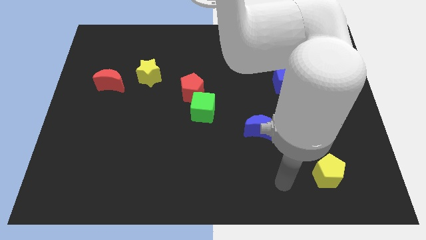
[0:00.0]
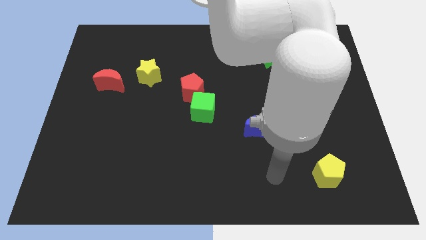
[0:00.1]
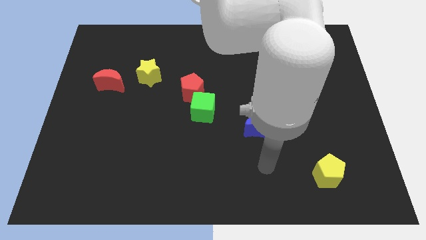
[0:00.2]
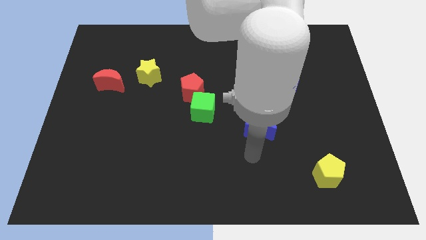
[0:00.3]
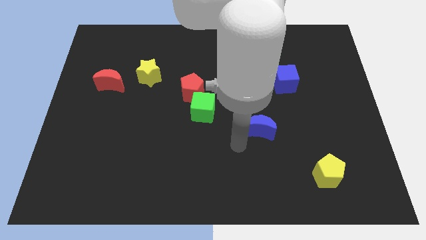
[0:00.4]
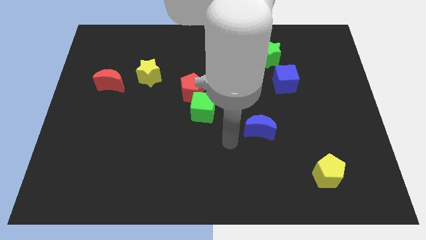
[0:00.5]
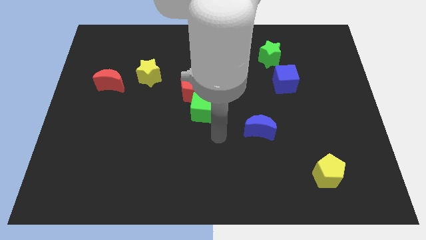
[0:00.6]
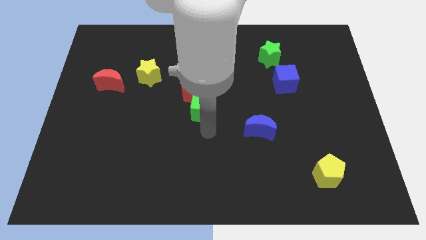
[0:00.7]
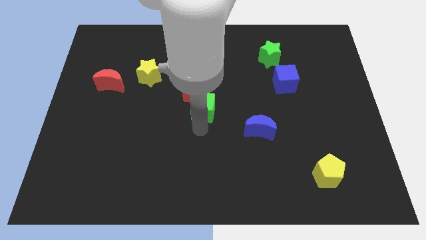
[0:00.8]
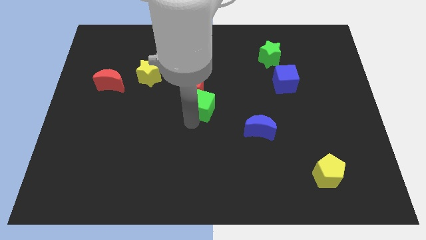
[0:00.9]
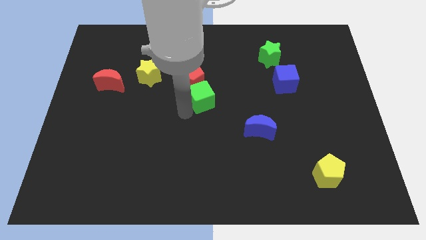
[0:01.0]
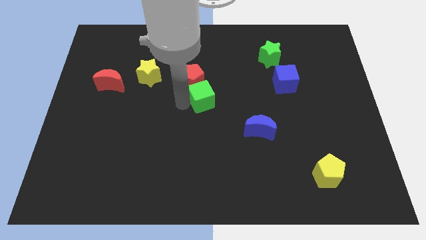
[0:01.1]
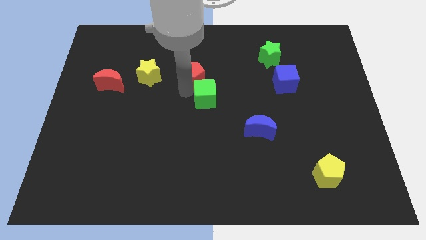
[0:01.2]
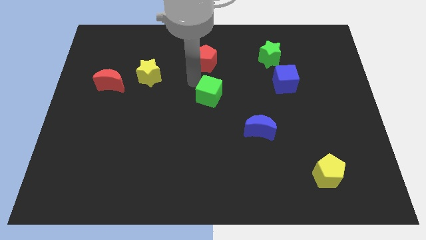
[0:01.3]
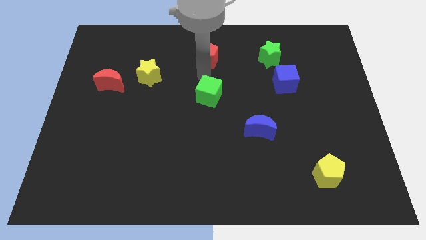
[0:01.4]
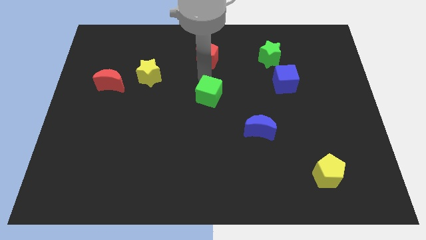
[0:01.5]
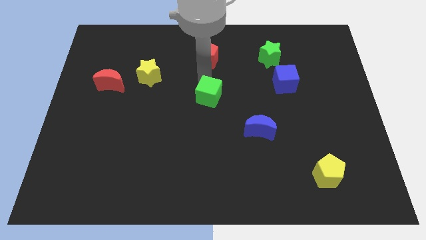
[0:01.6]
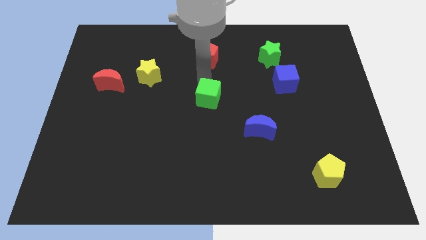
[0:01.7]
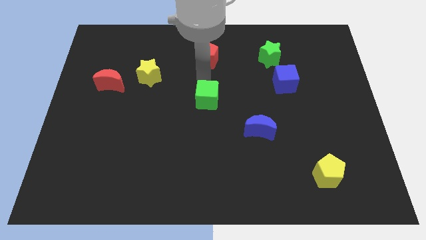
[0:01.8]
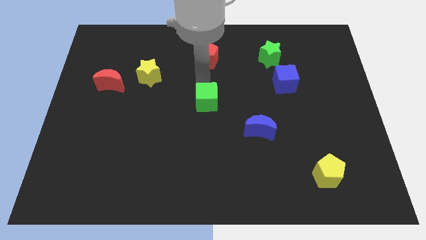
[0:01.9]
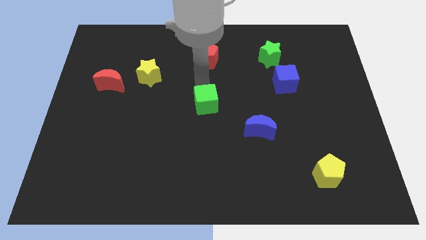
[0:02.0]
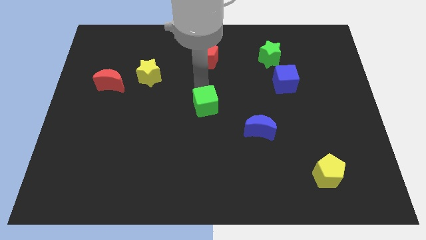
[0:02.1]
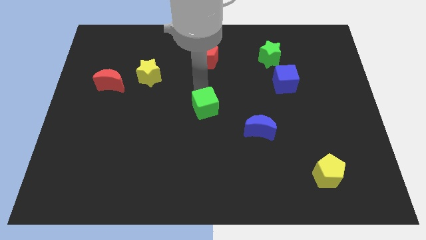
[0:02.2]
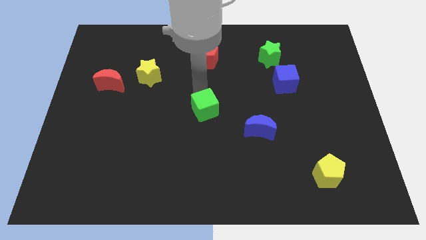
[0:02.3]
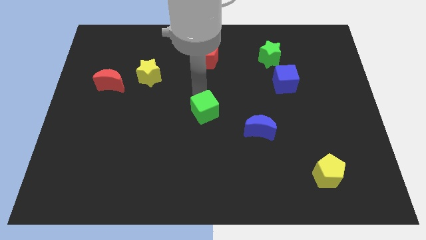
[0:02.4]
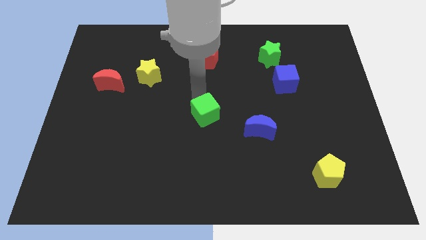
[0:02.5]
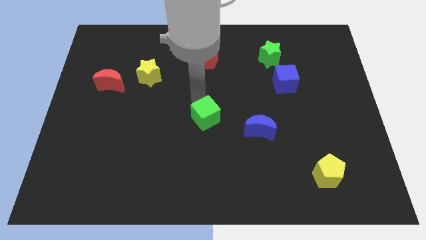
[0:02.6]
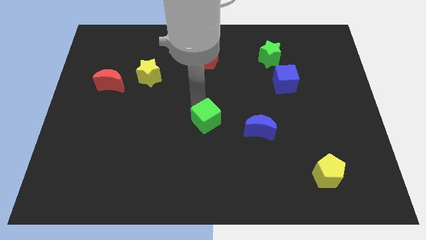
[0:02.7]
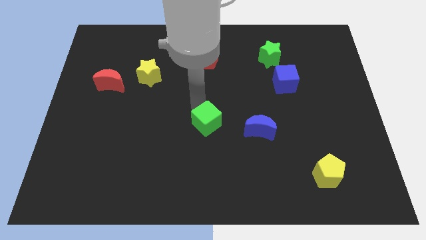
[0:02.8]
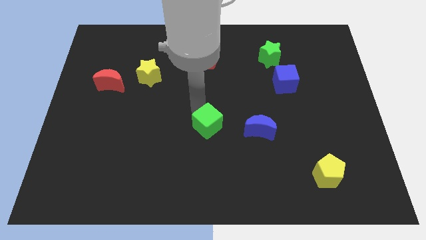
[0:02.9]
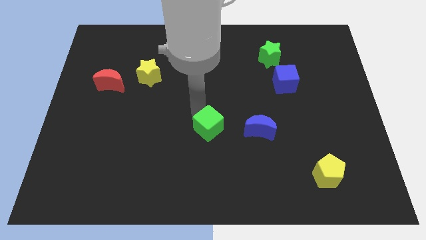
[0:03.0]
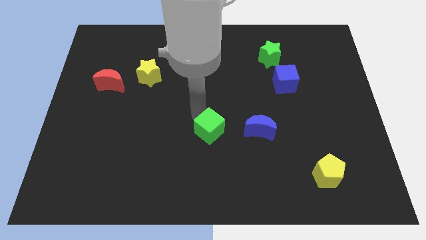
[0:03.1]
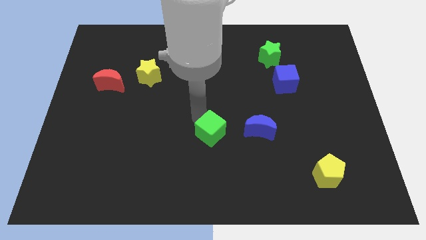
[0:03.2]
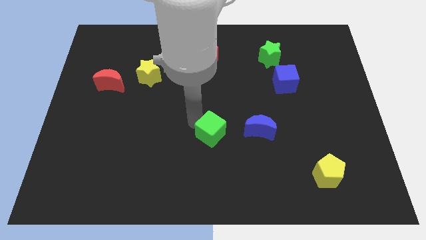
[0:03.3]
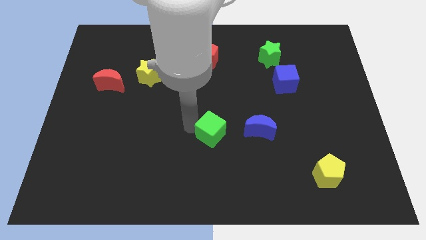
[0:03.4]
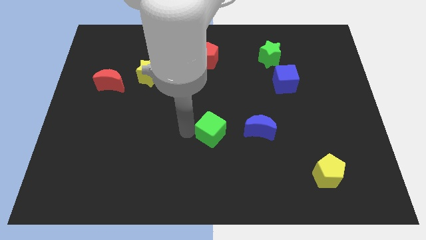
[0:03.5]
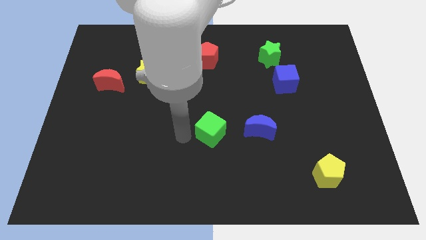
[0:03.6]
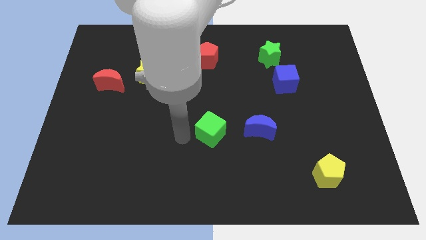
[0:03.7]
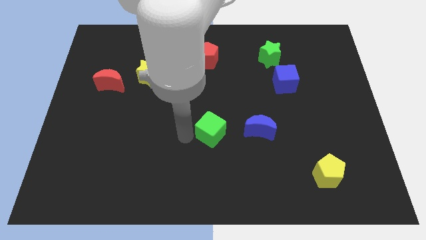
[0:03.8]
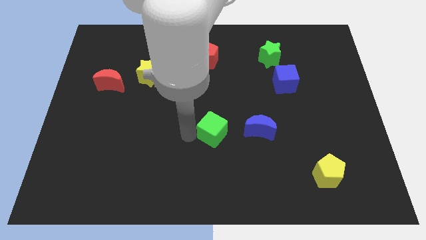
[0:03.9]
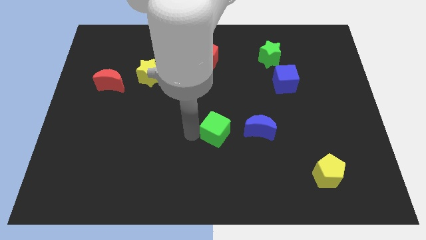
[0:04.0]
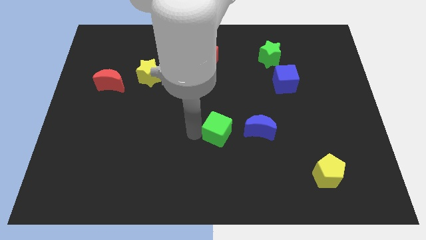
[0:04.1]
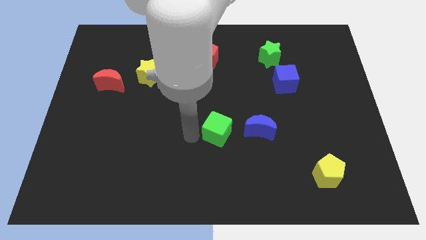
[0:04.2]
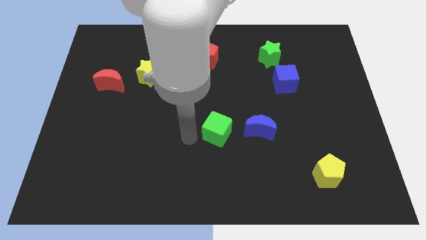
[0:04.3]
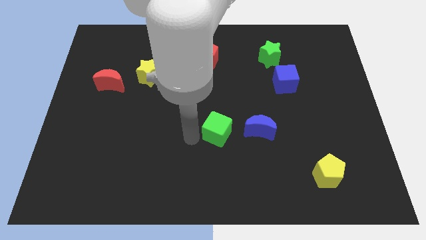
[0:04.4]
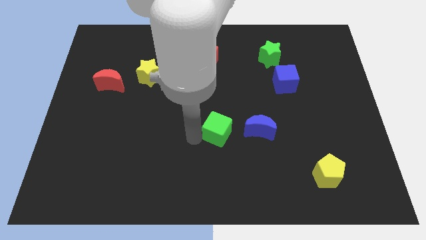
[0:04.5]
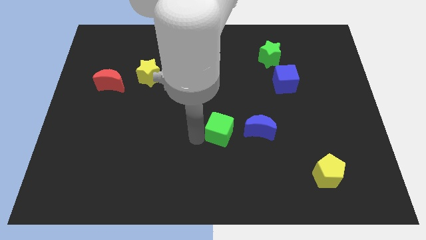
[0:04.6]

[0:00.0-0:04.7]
slide the green cube diagonally down and right somewhat

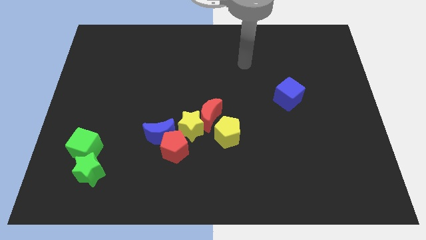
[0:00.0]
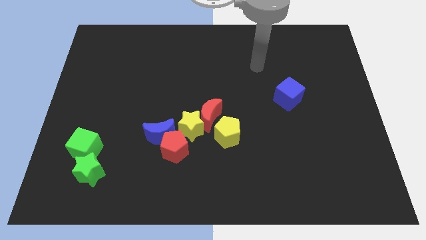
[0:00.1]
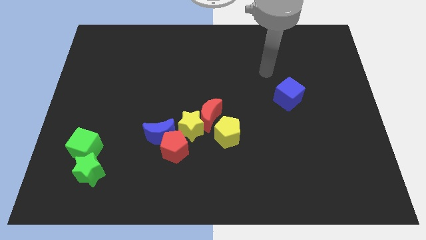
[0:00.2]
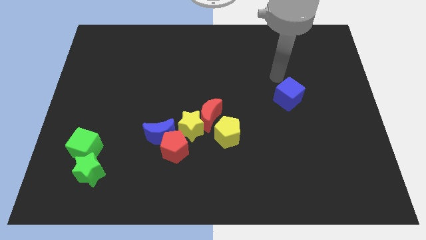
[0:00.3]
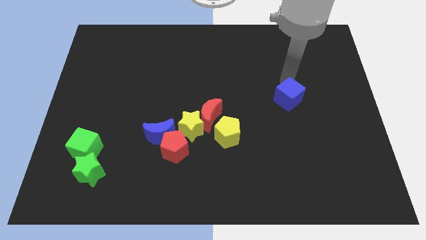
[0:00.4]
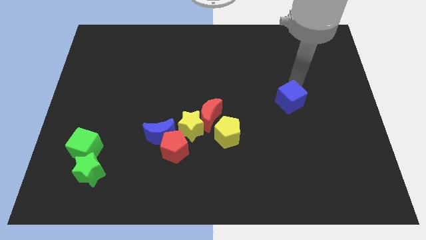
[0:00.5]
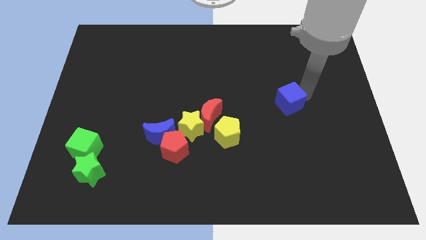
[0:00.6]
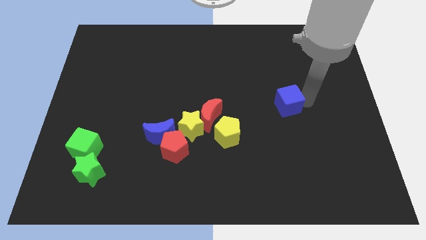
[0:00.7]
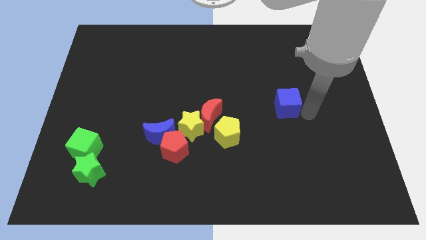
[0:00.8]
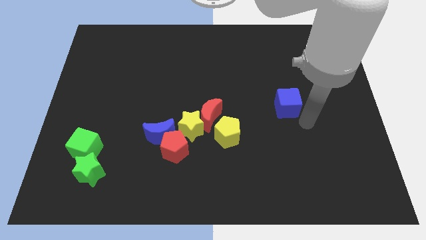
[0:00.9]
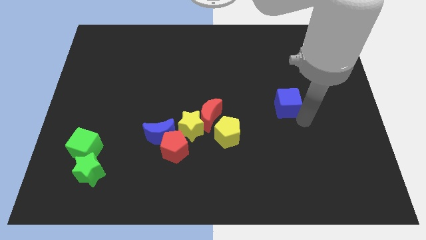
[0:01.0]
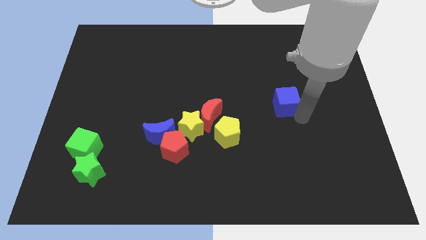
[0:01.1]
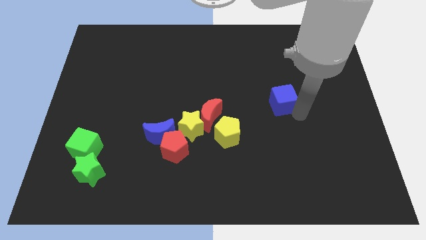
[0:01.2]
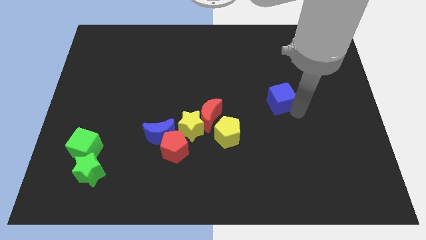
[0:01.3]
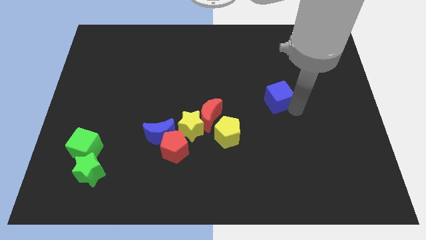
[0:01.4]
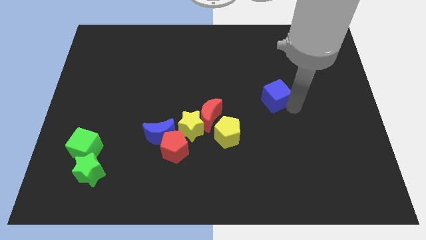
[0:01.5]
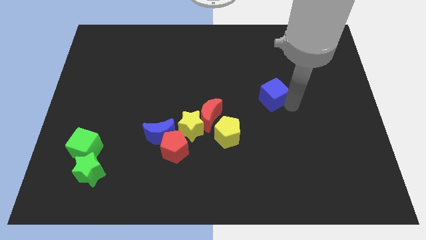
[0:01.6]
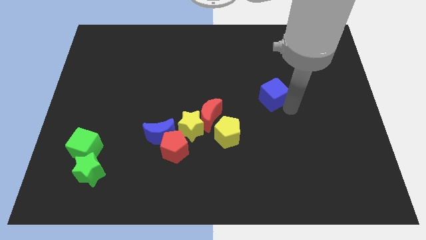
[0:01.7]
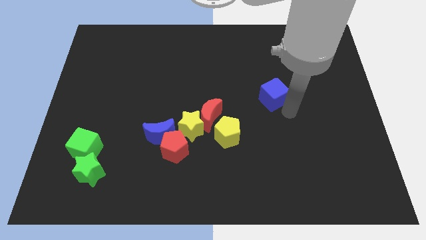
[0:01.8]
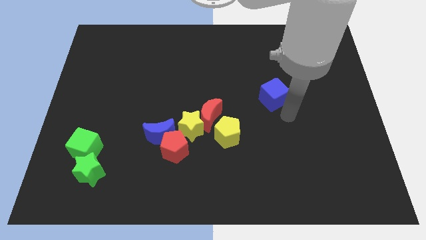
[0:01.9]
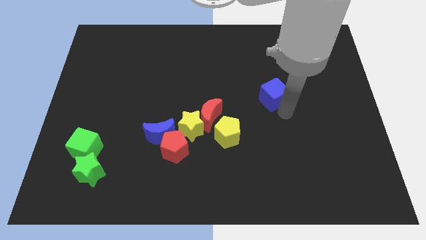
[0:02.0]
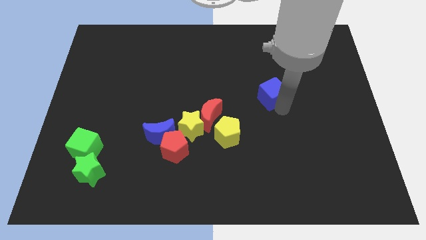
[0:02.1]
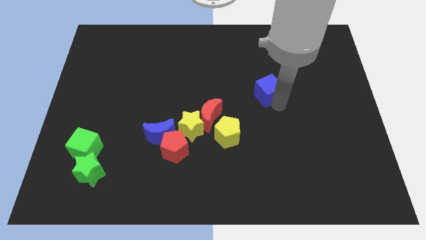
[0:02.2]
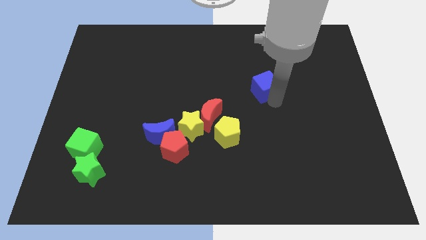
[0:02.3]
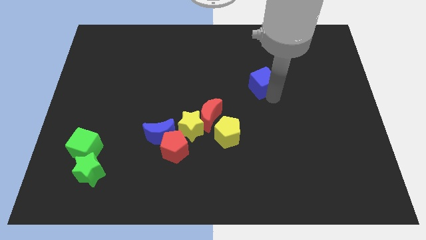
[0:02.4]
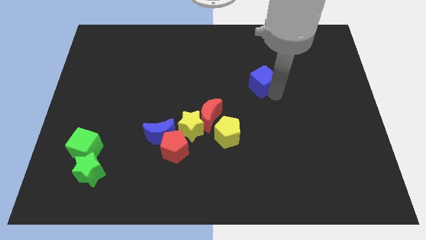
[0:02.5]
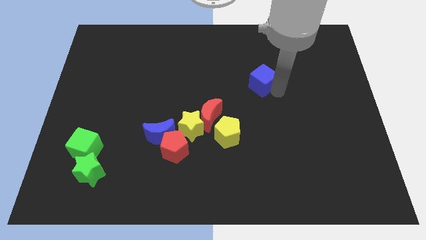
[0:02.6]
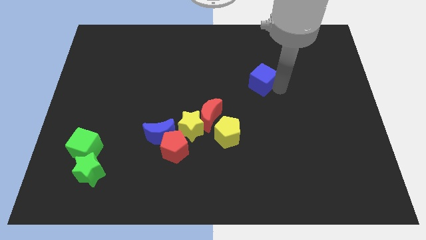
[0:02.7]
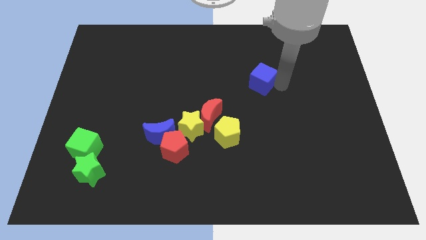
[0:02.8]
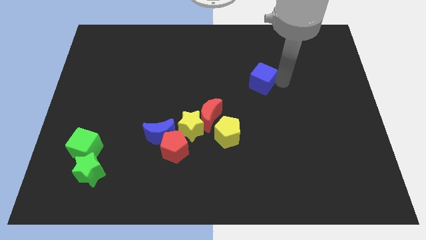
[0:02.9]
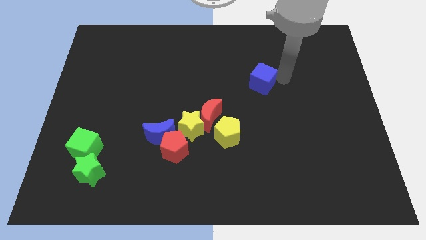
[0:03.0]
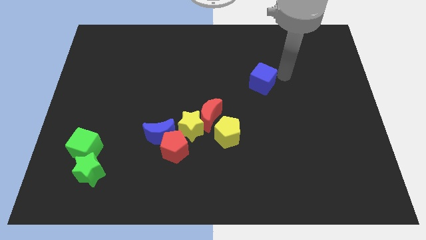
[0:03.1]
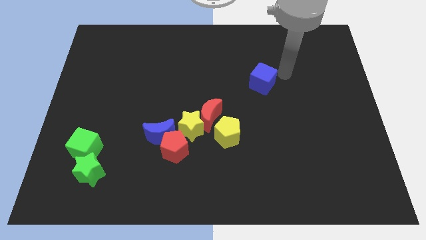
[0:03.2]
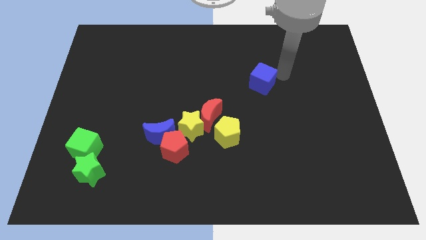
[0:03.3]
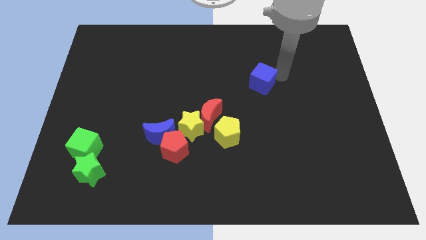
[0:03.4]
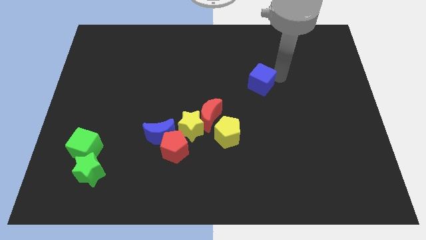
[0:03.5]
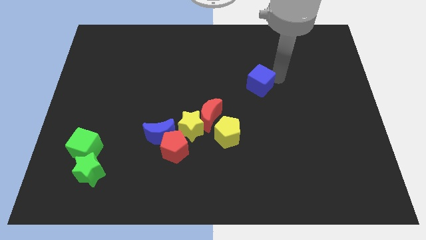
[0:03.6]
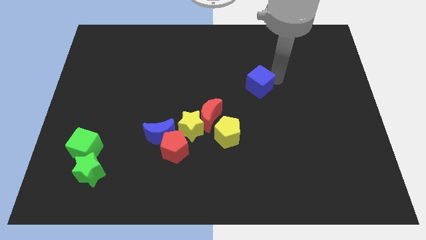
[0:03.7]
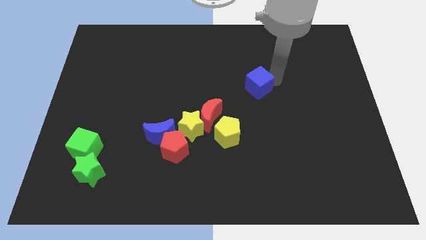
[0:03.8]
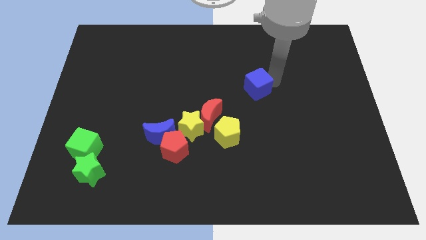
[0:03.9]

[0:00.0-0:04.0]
slide the blue cube a little bit to the left
